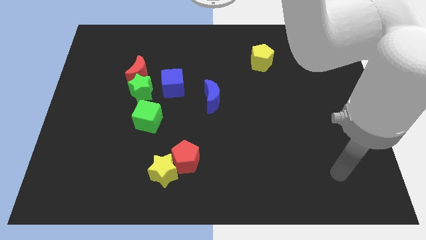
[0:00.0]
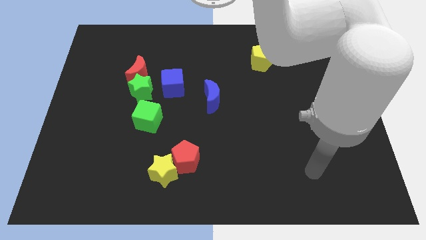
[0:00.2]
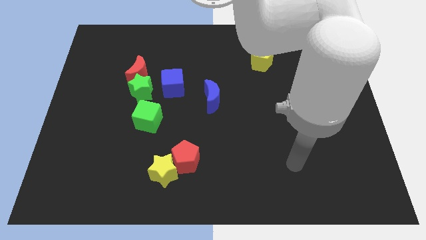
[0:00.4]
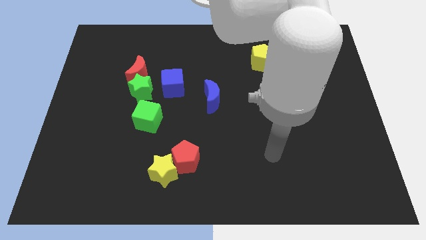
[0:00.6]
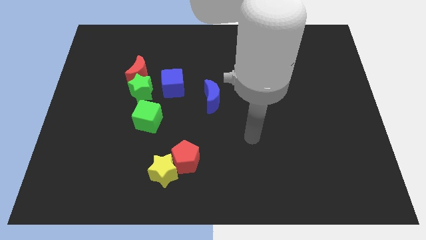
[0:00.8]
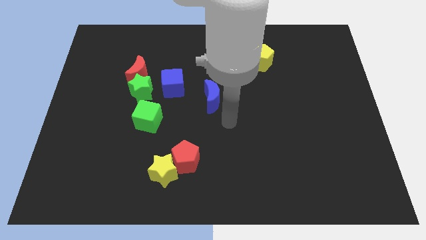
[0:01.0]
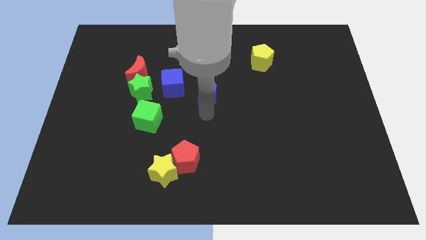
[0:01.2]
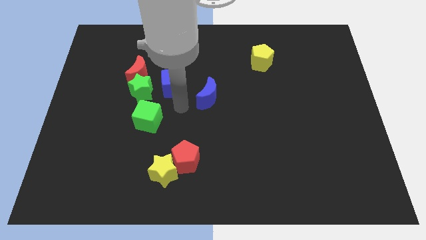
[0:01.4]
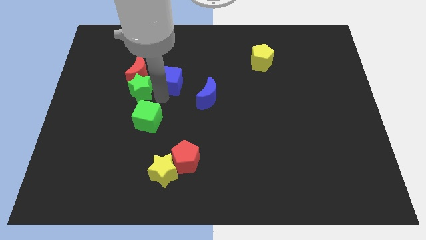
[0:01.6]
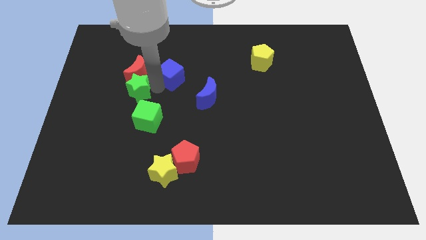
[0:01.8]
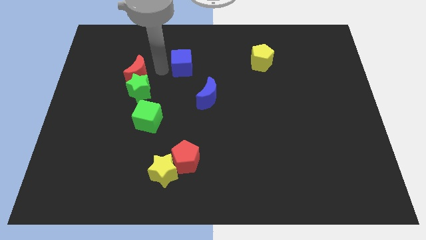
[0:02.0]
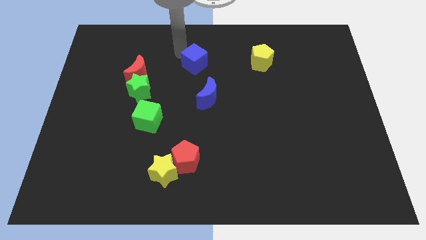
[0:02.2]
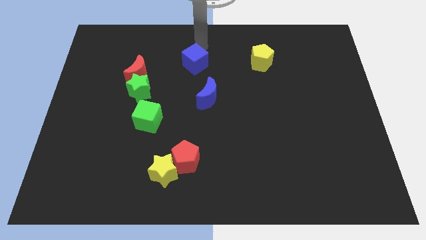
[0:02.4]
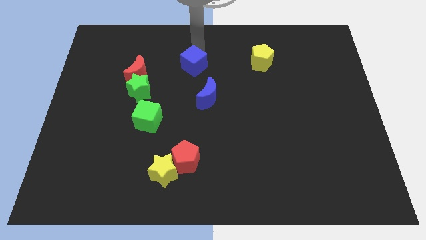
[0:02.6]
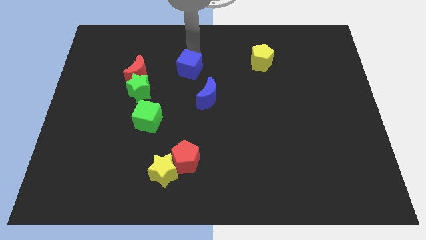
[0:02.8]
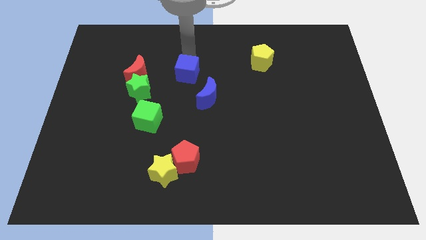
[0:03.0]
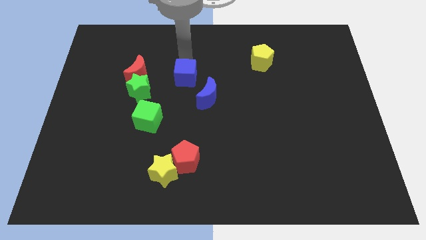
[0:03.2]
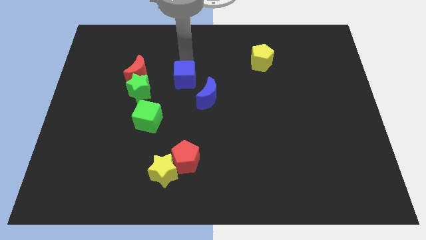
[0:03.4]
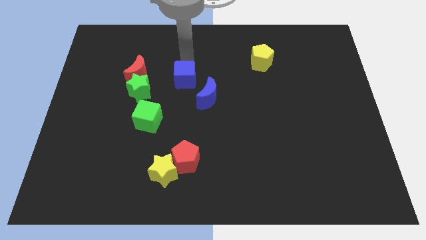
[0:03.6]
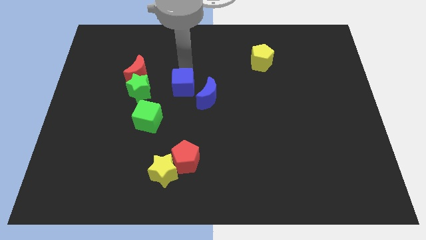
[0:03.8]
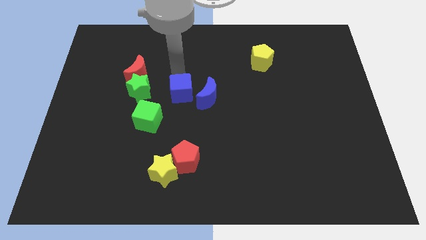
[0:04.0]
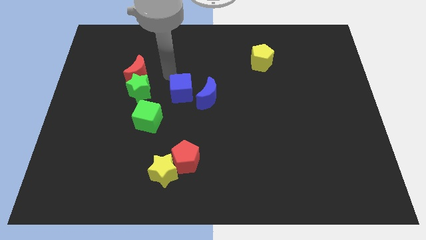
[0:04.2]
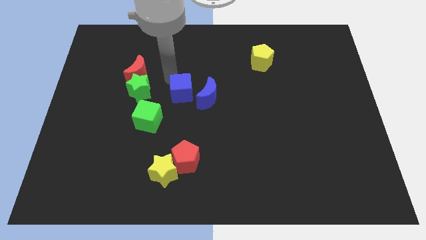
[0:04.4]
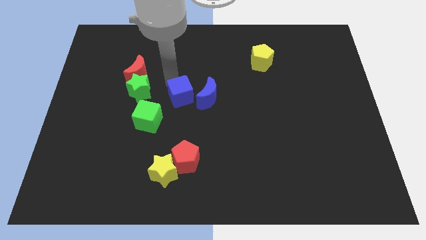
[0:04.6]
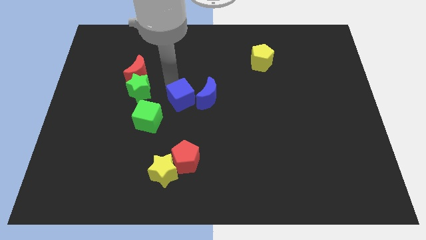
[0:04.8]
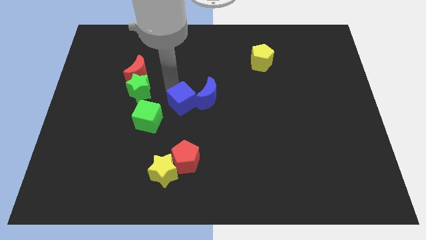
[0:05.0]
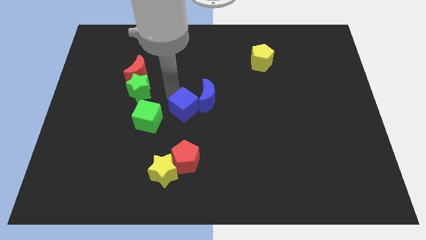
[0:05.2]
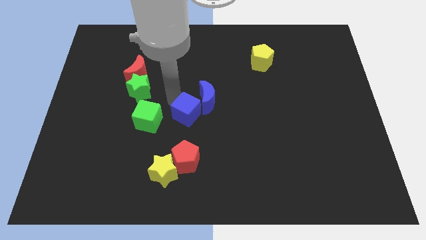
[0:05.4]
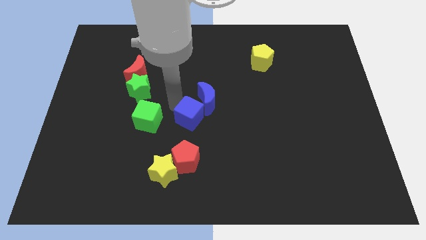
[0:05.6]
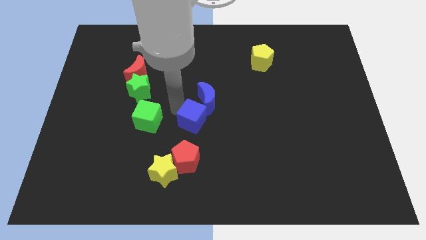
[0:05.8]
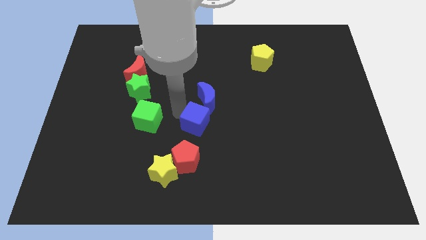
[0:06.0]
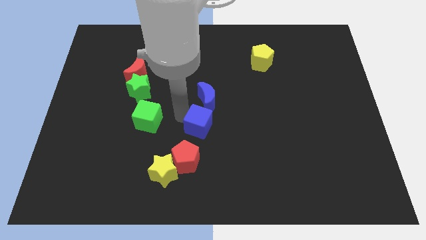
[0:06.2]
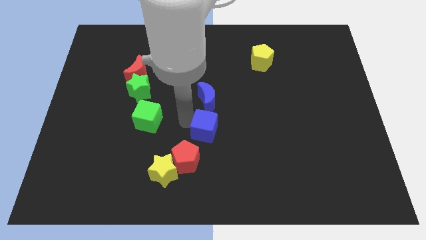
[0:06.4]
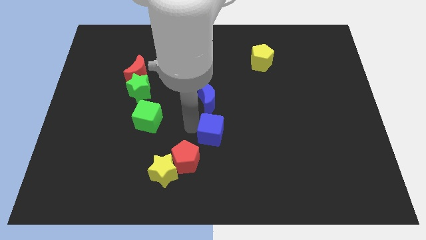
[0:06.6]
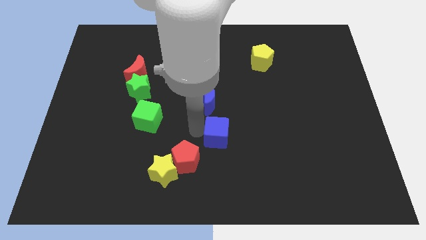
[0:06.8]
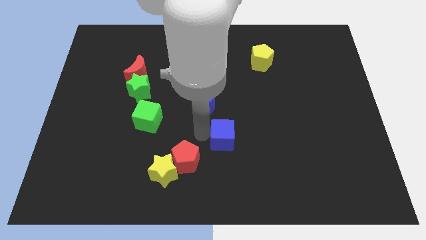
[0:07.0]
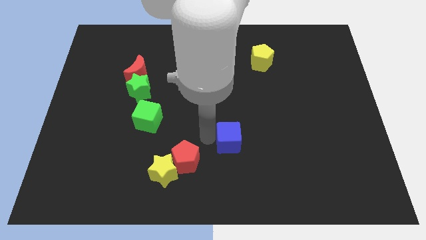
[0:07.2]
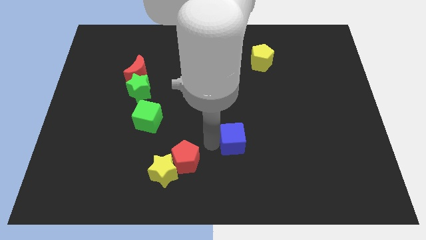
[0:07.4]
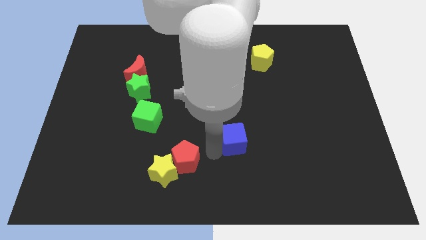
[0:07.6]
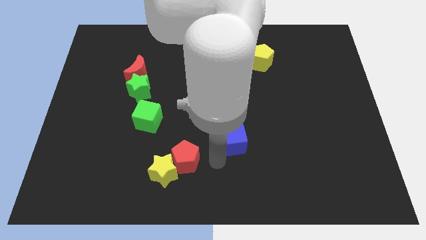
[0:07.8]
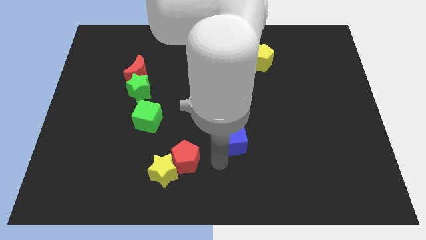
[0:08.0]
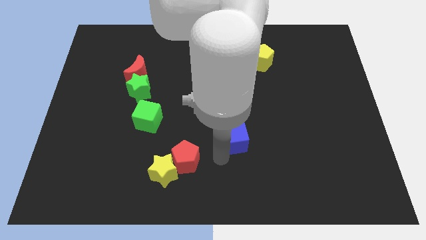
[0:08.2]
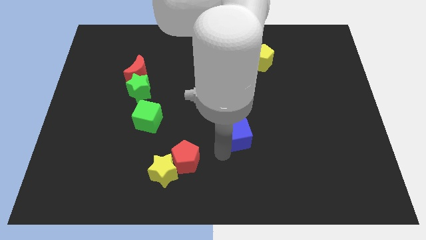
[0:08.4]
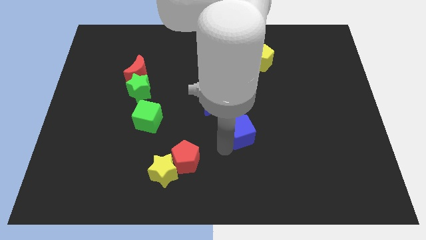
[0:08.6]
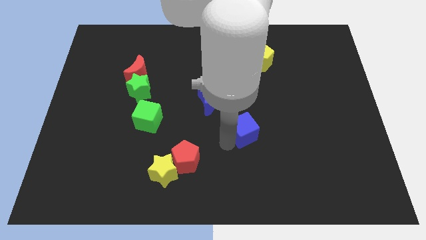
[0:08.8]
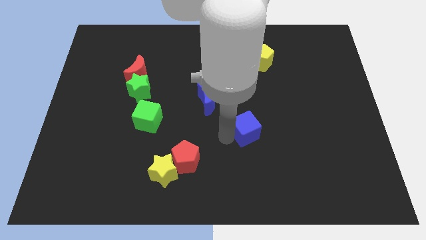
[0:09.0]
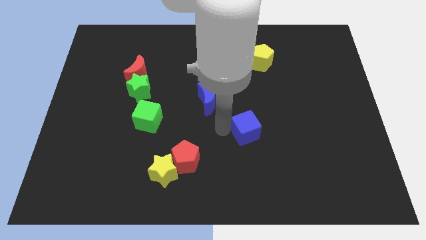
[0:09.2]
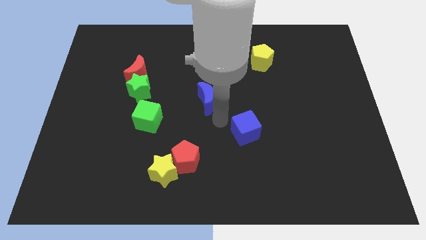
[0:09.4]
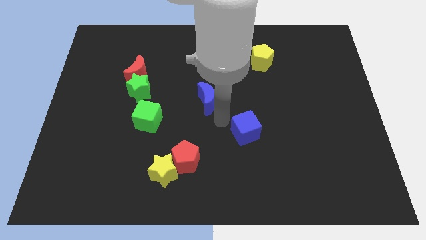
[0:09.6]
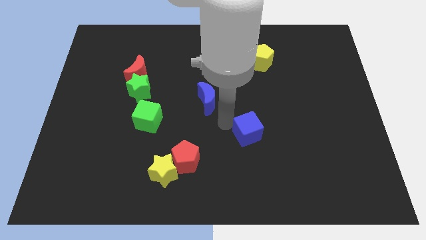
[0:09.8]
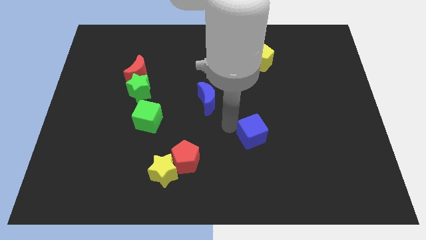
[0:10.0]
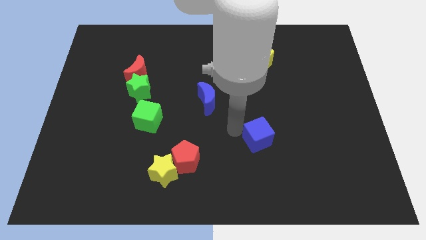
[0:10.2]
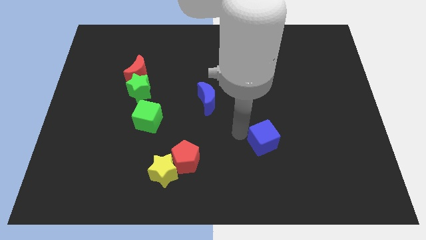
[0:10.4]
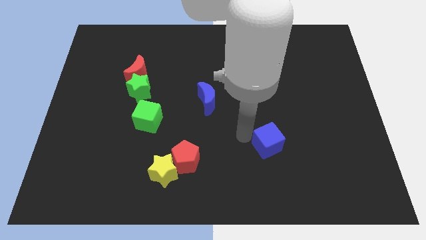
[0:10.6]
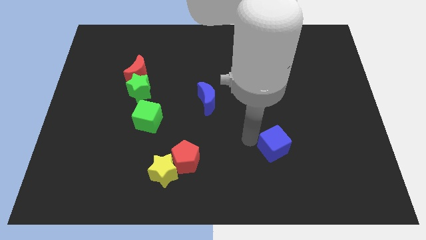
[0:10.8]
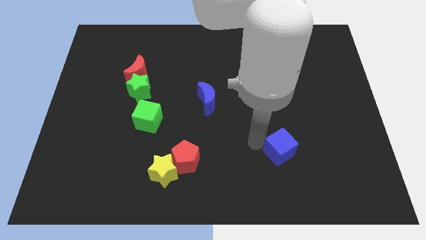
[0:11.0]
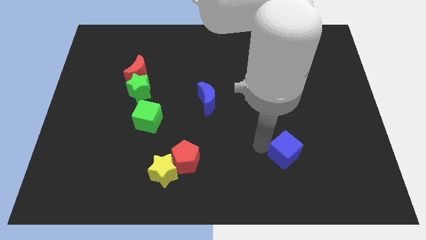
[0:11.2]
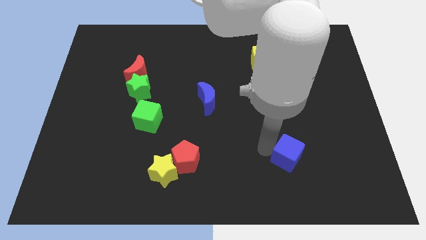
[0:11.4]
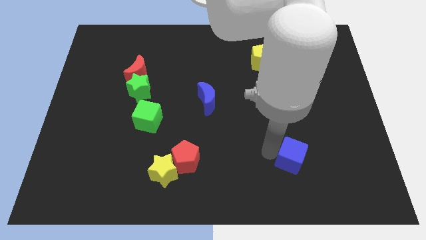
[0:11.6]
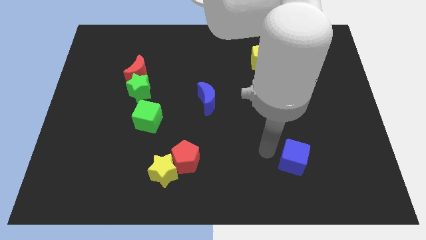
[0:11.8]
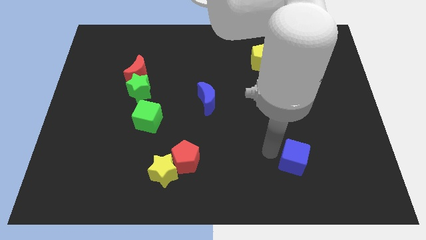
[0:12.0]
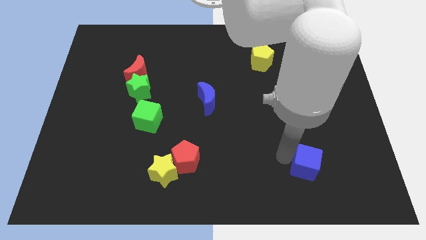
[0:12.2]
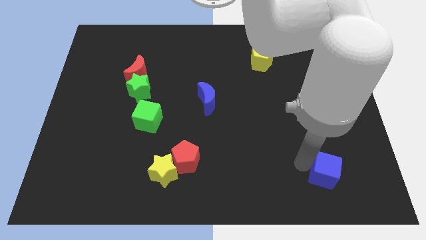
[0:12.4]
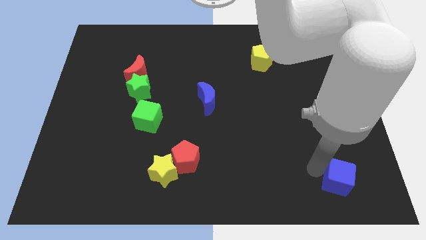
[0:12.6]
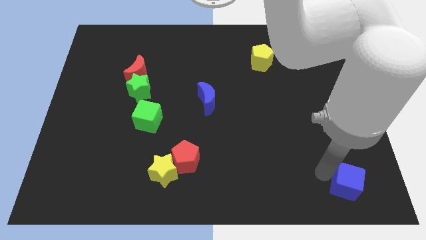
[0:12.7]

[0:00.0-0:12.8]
move the blue cube to the lower right corner
